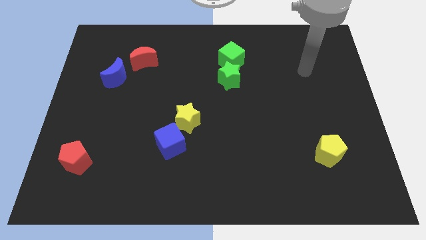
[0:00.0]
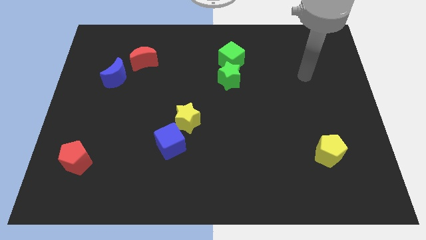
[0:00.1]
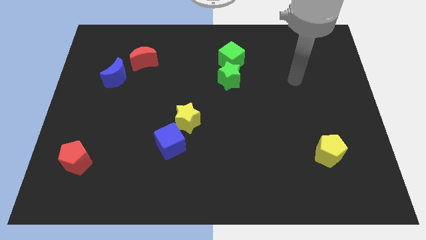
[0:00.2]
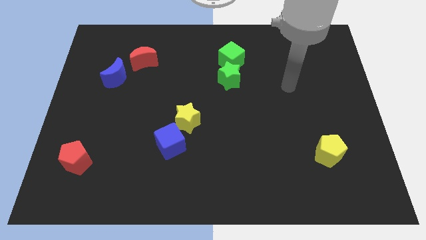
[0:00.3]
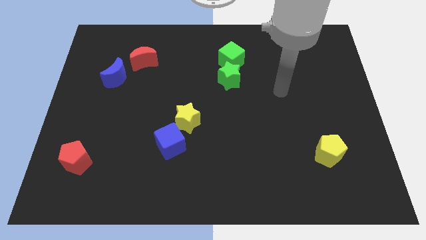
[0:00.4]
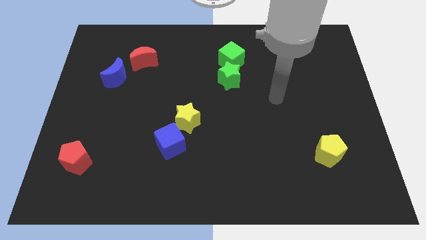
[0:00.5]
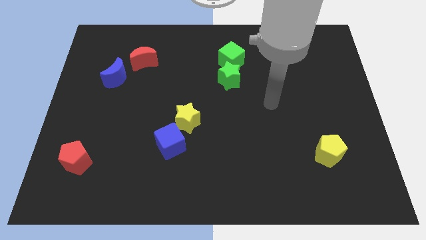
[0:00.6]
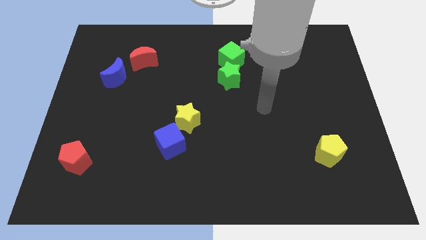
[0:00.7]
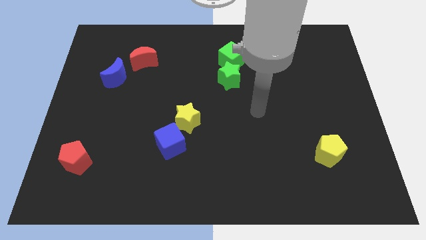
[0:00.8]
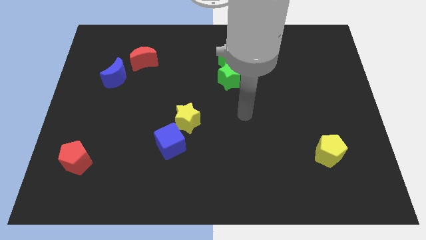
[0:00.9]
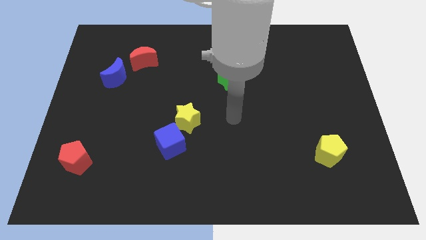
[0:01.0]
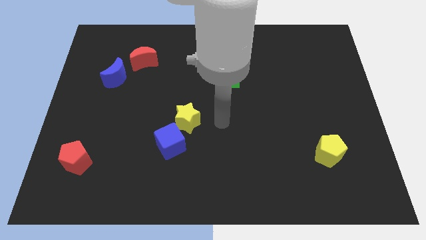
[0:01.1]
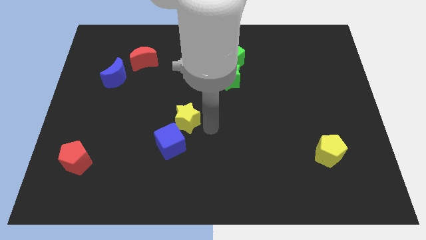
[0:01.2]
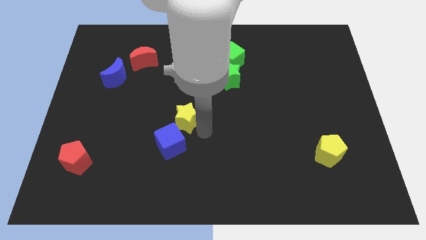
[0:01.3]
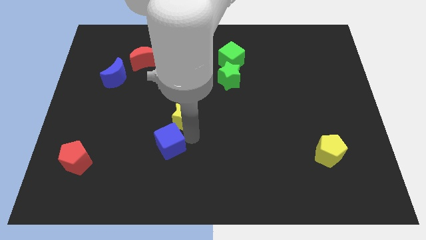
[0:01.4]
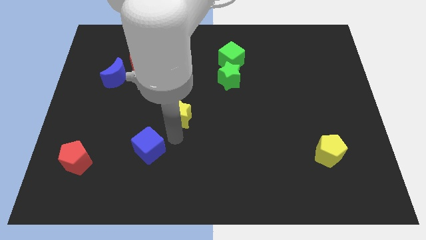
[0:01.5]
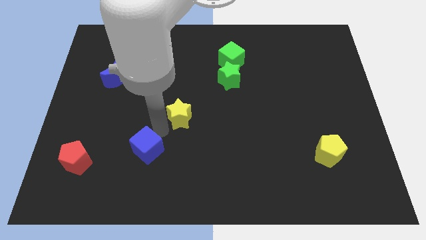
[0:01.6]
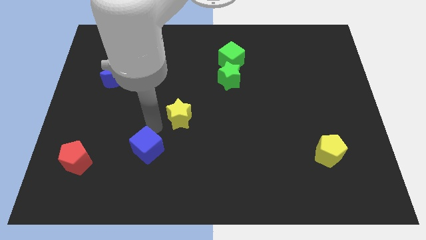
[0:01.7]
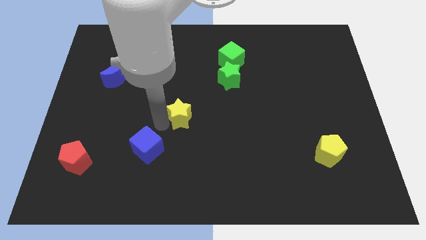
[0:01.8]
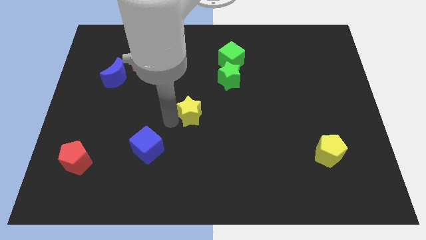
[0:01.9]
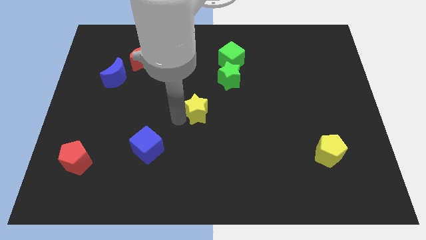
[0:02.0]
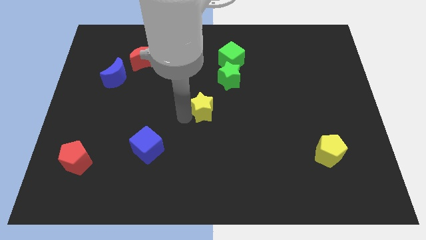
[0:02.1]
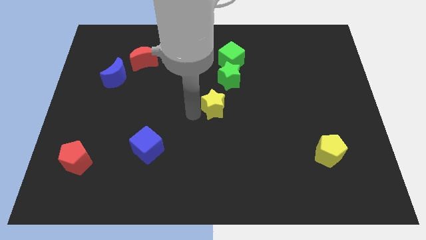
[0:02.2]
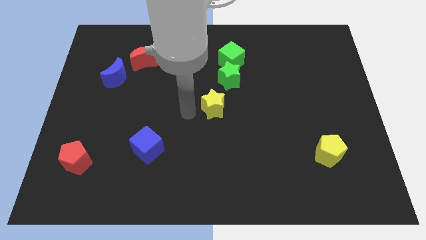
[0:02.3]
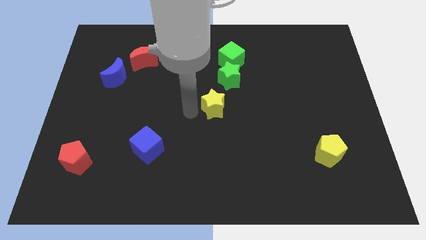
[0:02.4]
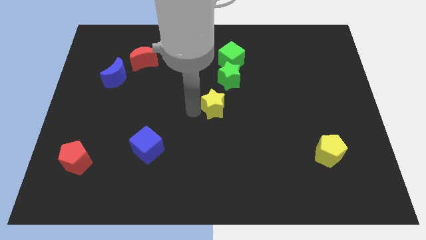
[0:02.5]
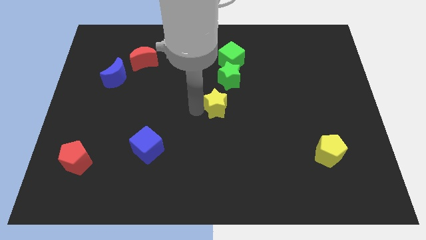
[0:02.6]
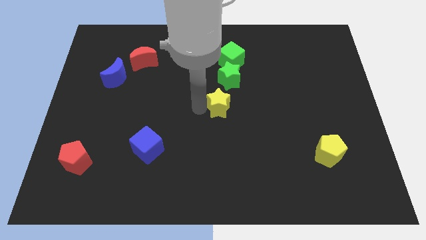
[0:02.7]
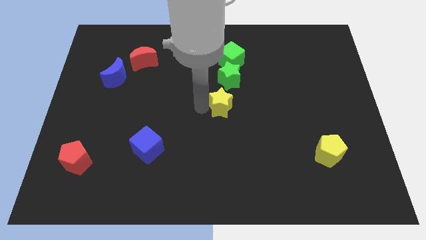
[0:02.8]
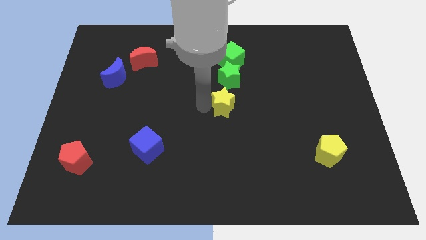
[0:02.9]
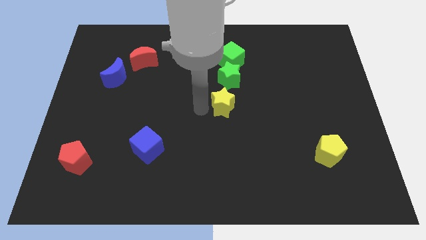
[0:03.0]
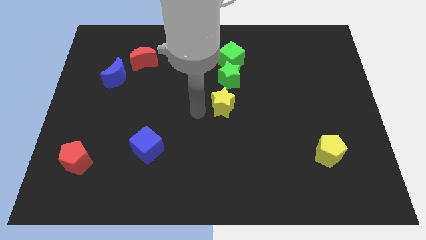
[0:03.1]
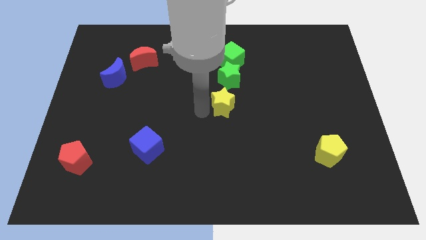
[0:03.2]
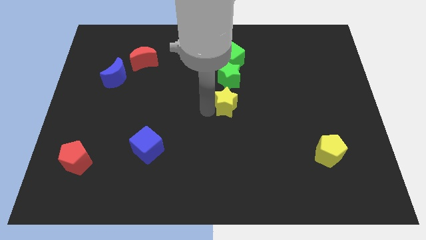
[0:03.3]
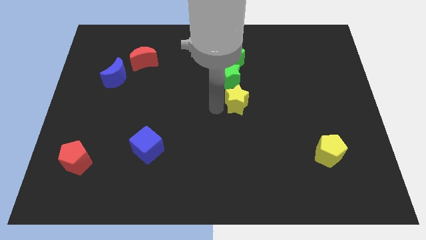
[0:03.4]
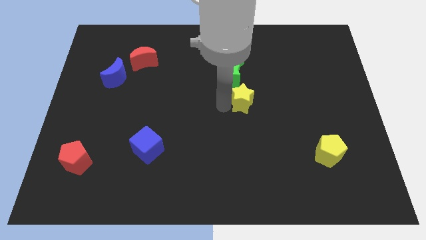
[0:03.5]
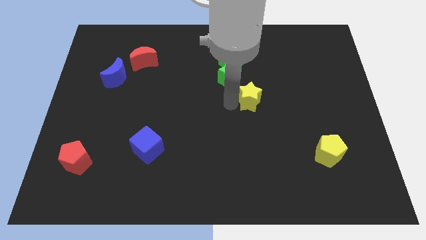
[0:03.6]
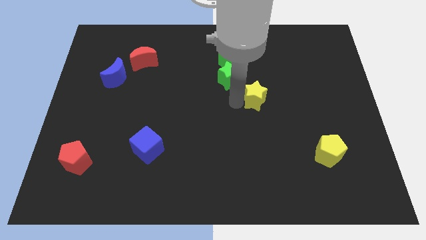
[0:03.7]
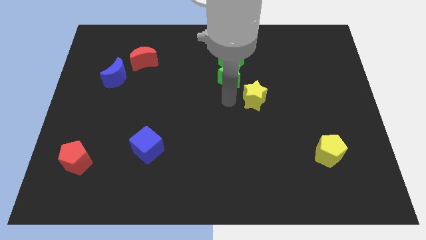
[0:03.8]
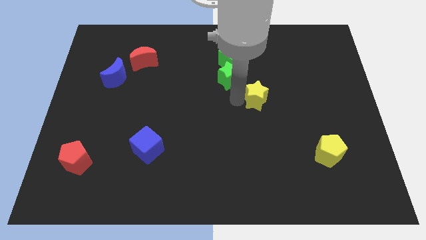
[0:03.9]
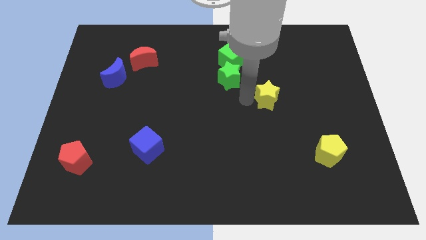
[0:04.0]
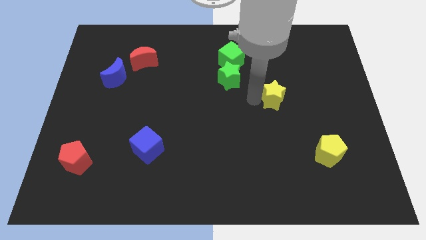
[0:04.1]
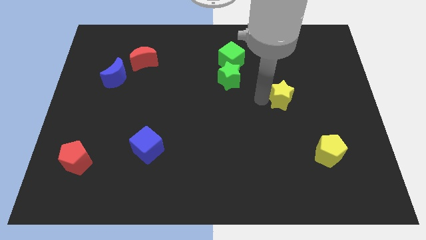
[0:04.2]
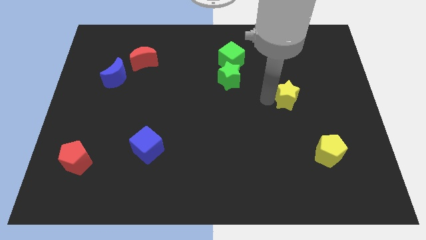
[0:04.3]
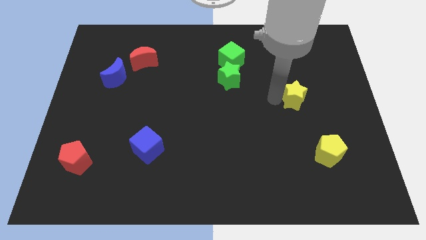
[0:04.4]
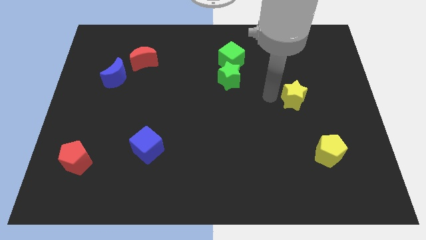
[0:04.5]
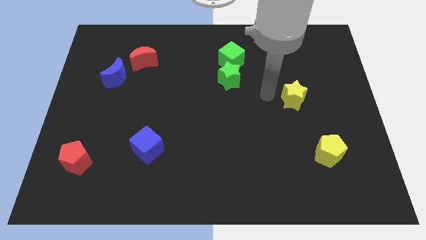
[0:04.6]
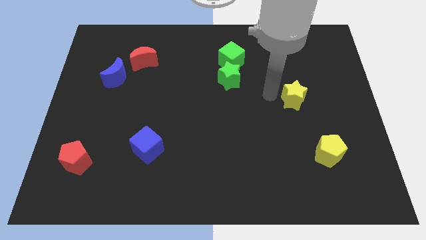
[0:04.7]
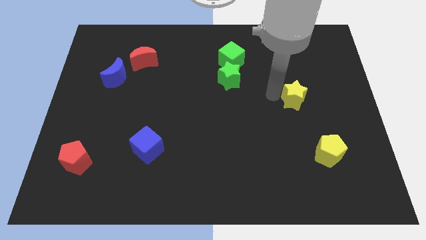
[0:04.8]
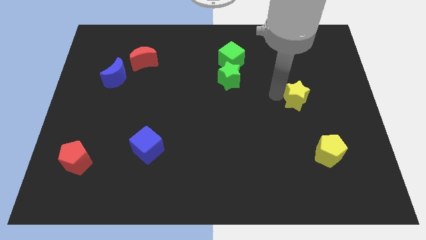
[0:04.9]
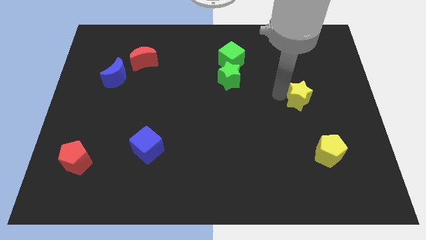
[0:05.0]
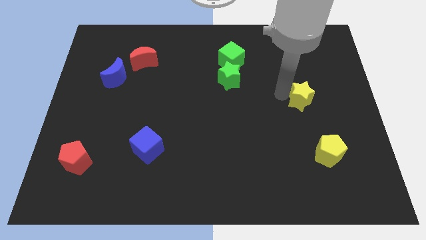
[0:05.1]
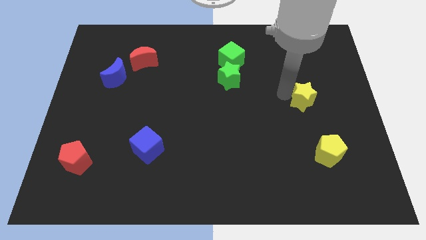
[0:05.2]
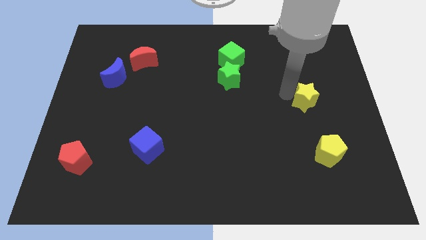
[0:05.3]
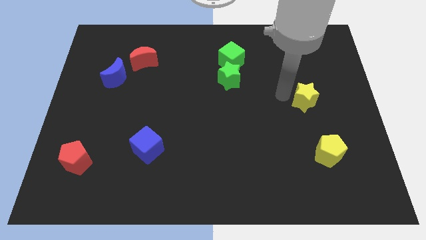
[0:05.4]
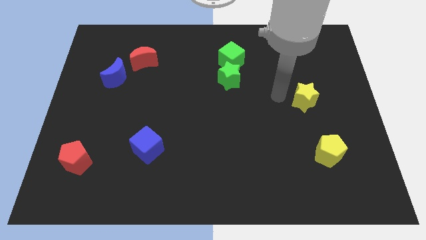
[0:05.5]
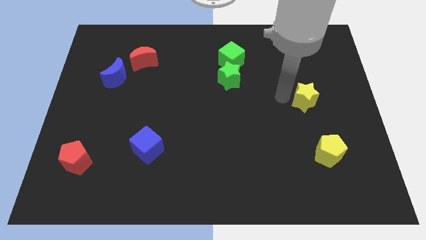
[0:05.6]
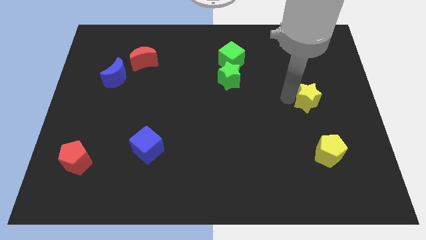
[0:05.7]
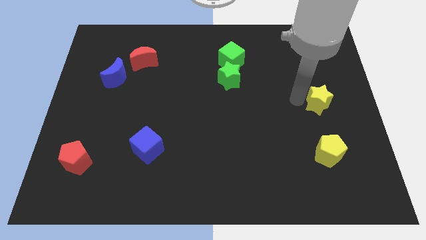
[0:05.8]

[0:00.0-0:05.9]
slide the yellow star to the center right

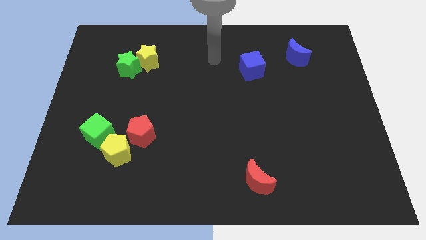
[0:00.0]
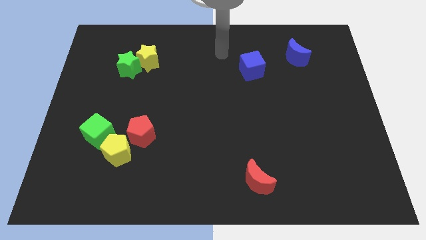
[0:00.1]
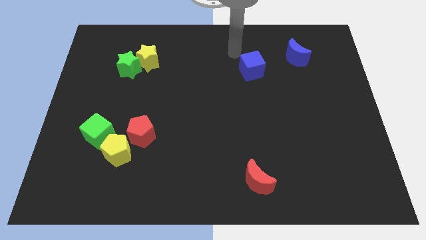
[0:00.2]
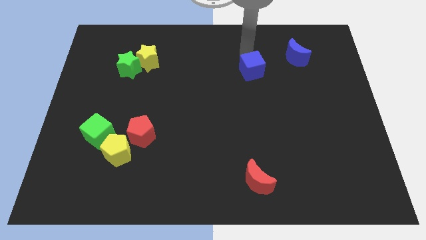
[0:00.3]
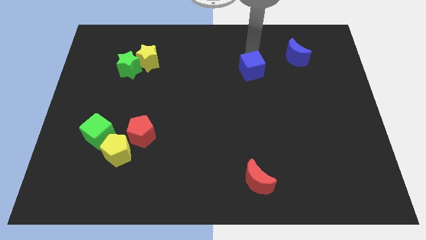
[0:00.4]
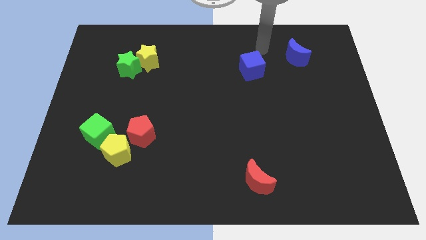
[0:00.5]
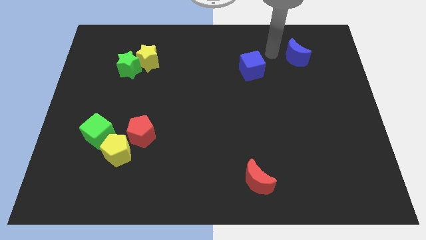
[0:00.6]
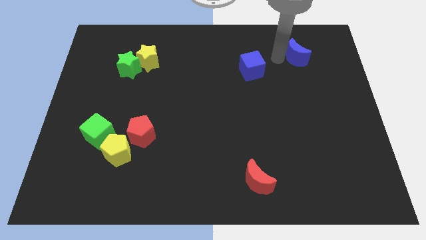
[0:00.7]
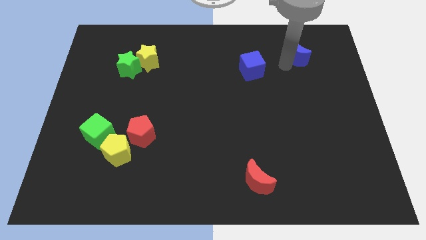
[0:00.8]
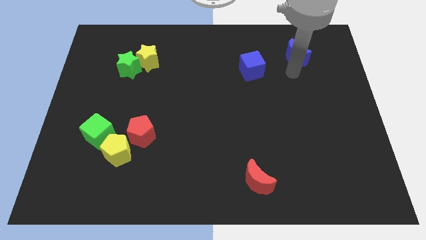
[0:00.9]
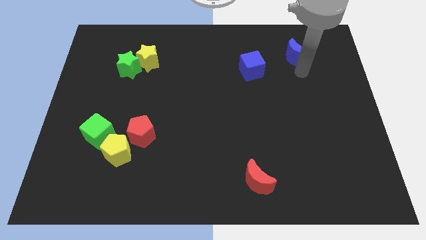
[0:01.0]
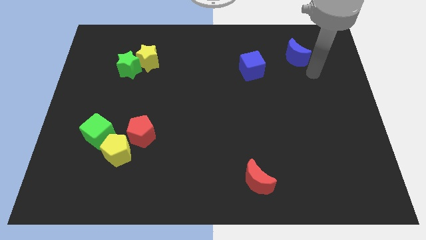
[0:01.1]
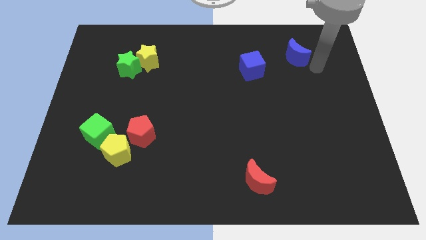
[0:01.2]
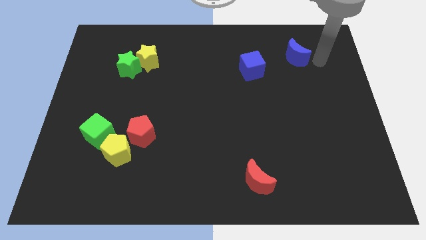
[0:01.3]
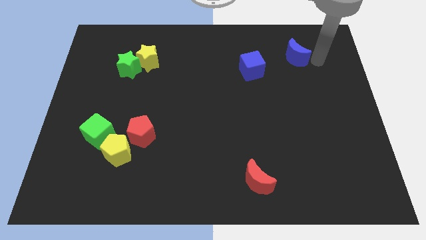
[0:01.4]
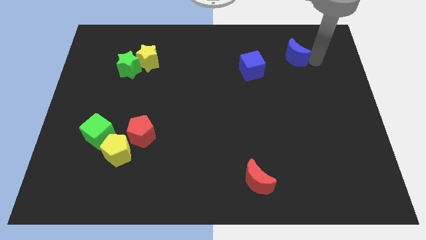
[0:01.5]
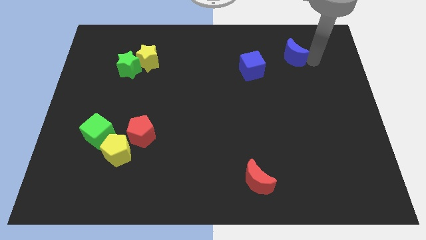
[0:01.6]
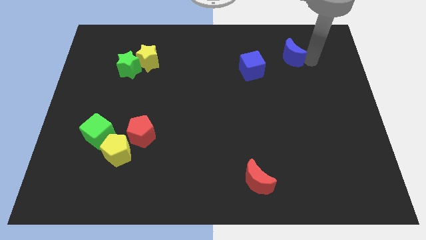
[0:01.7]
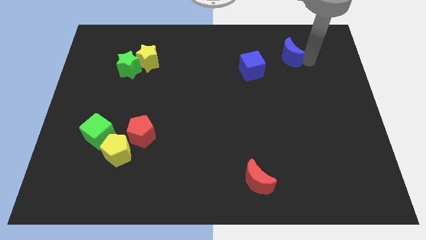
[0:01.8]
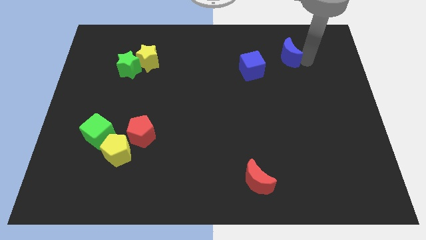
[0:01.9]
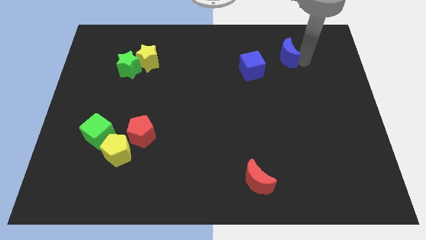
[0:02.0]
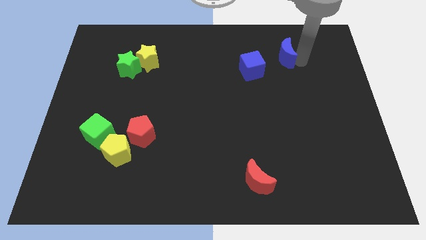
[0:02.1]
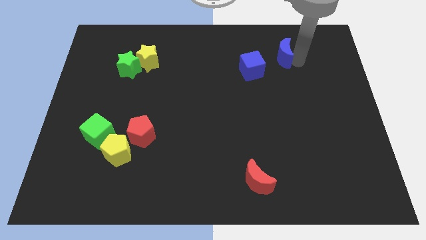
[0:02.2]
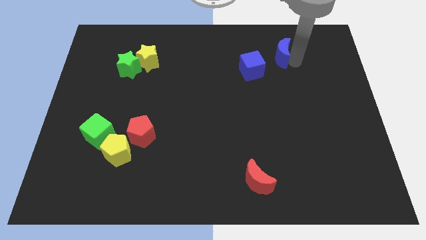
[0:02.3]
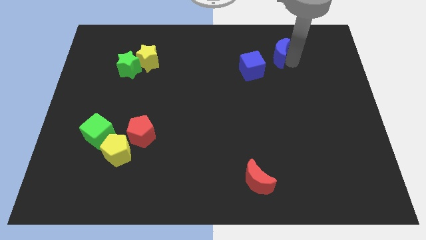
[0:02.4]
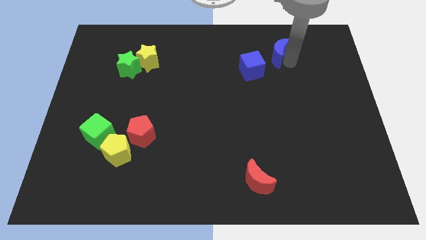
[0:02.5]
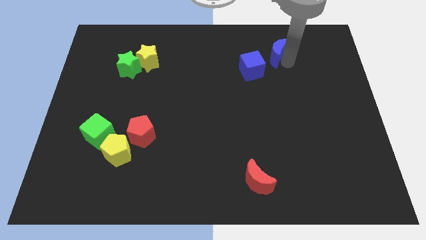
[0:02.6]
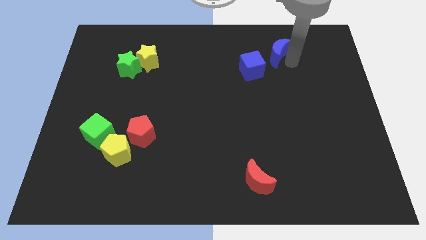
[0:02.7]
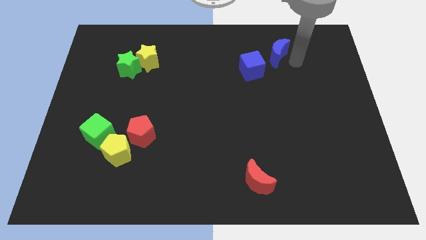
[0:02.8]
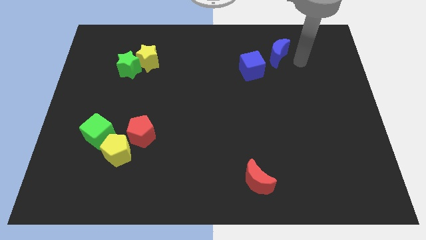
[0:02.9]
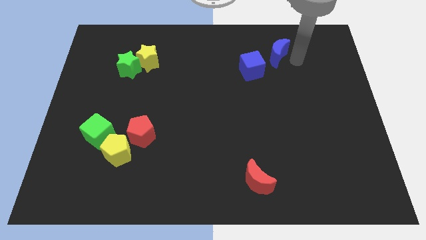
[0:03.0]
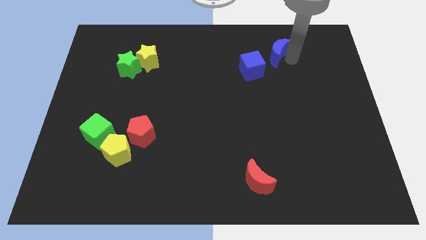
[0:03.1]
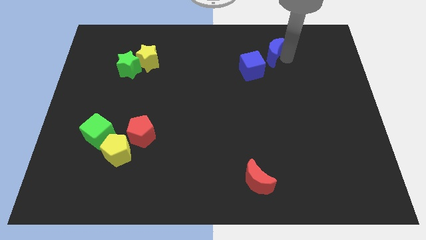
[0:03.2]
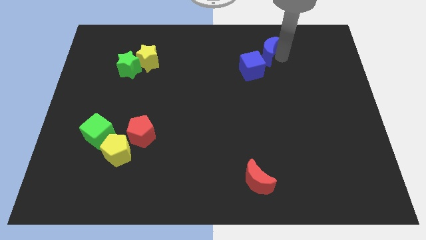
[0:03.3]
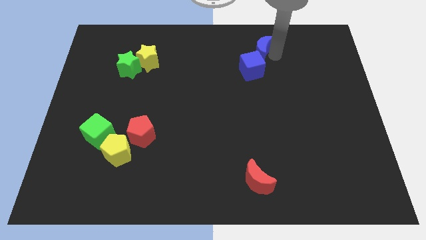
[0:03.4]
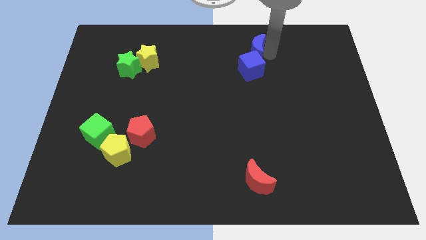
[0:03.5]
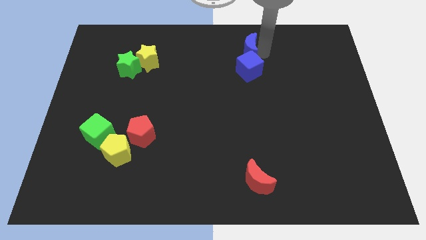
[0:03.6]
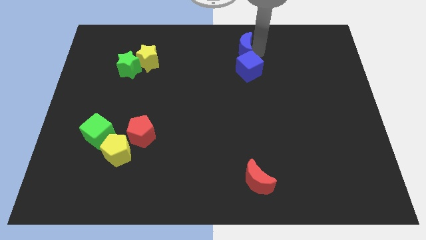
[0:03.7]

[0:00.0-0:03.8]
push the blue moon to the towards your base
